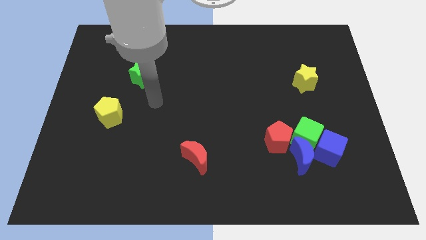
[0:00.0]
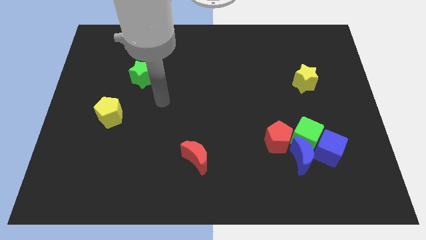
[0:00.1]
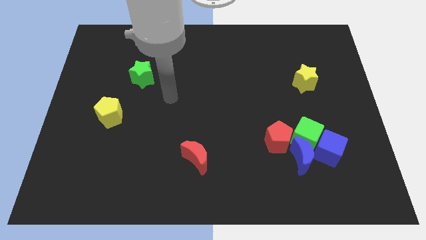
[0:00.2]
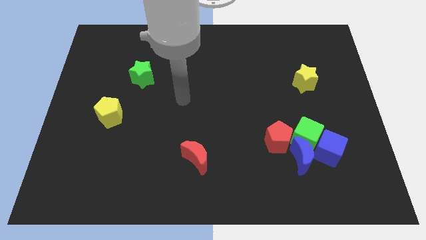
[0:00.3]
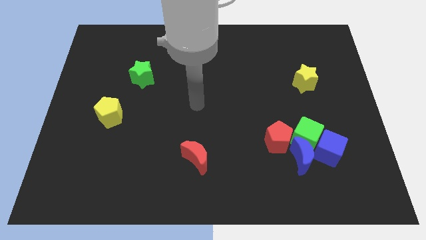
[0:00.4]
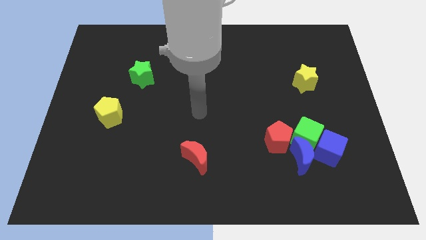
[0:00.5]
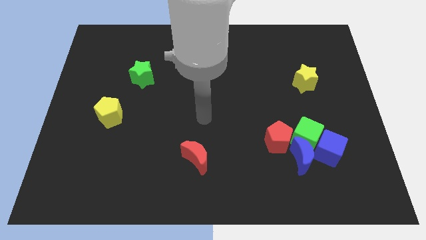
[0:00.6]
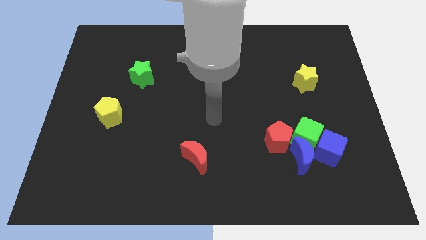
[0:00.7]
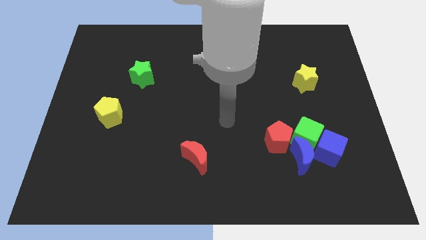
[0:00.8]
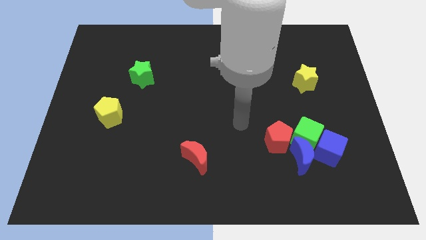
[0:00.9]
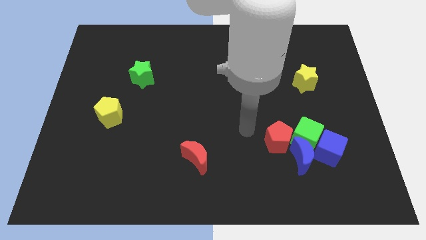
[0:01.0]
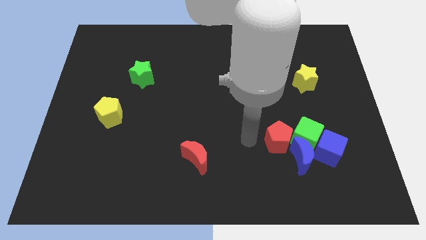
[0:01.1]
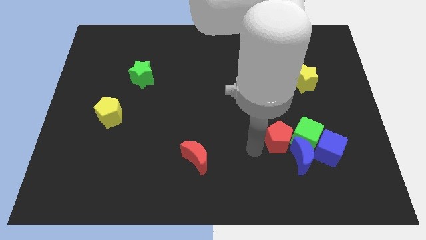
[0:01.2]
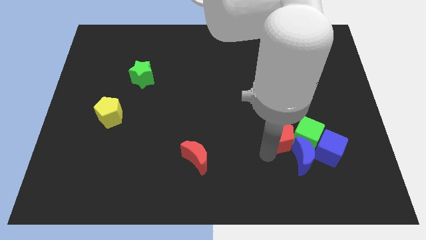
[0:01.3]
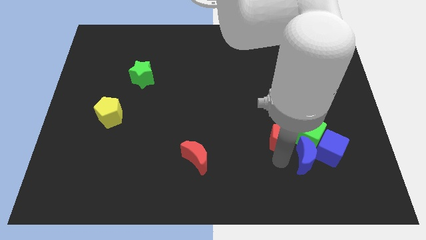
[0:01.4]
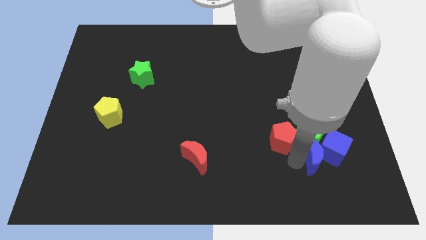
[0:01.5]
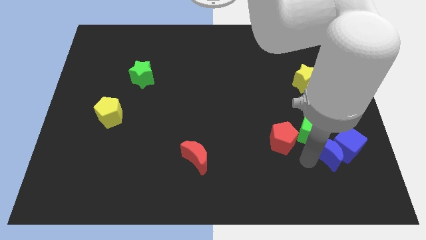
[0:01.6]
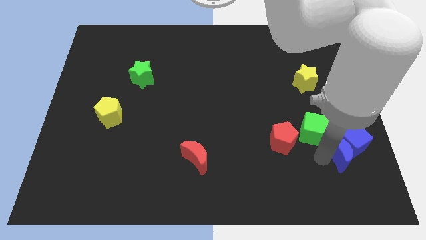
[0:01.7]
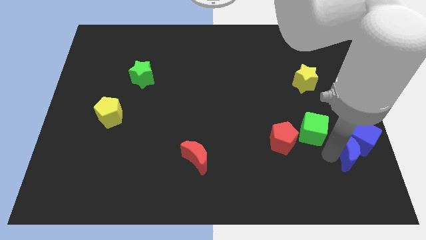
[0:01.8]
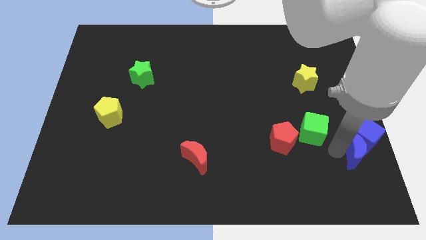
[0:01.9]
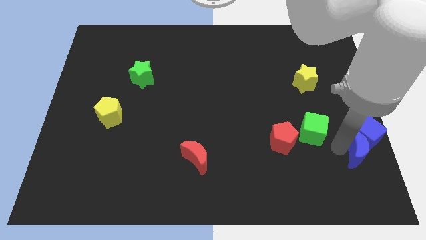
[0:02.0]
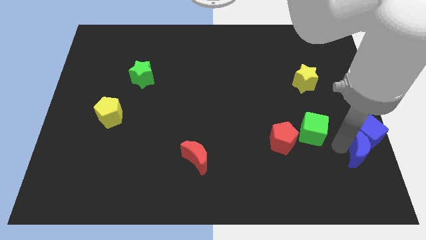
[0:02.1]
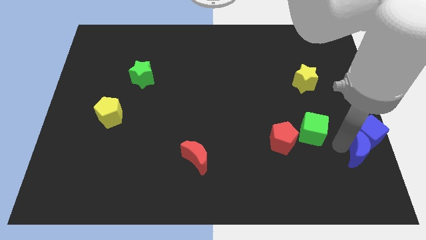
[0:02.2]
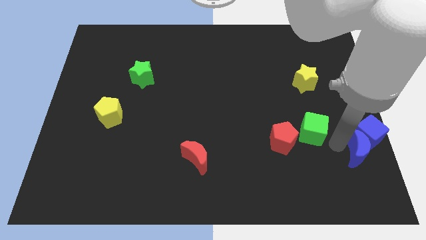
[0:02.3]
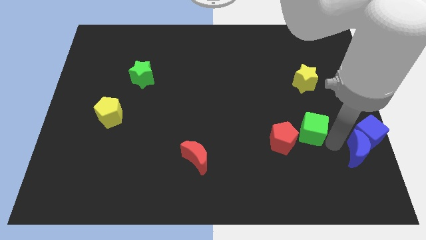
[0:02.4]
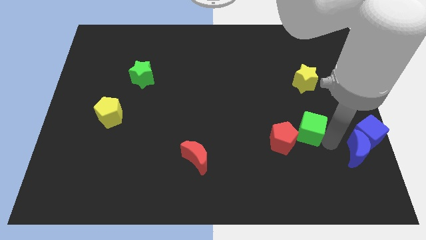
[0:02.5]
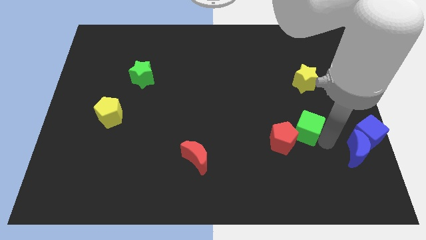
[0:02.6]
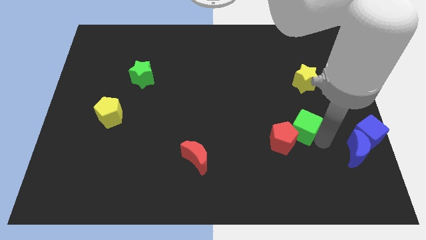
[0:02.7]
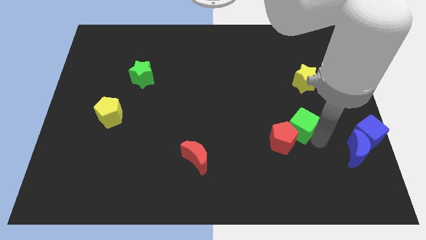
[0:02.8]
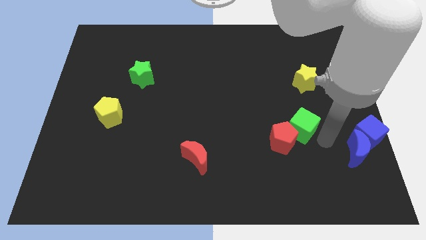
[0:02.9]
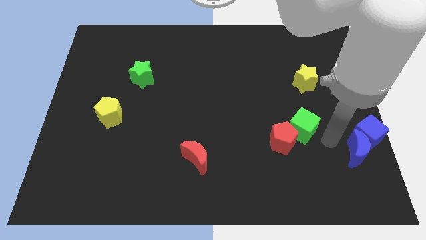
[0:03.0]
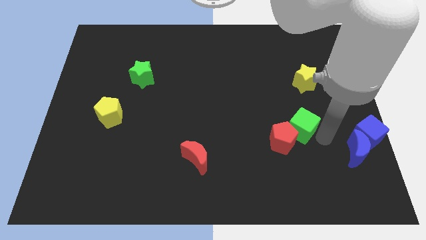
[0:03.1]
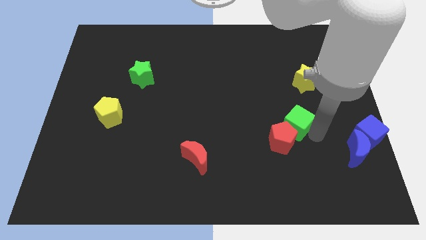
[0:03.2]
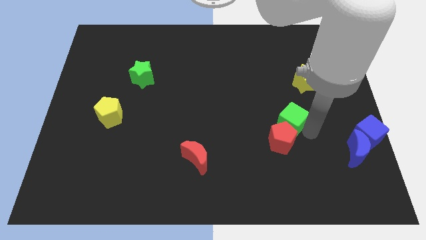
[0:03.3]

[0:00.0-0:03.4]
pull the green cube apart from the group of blocks

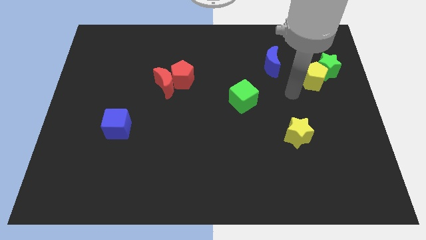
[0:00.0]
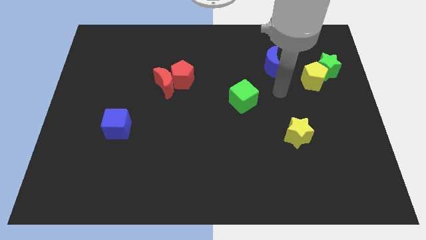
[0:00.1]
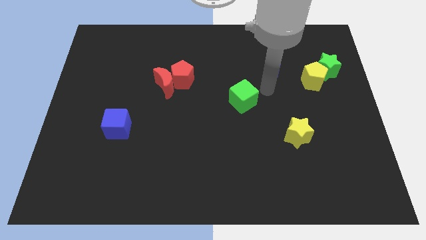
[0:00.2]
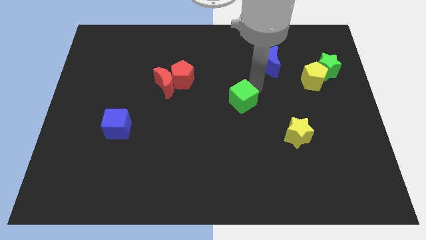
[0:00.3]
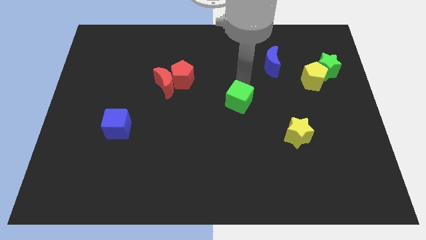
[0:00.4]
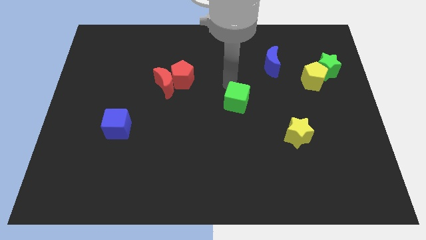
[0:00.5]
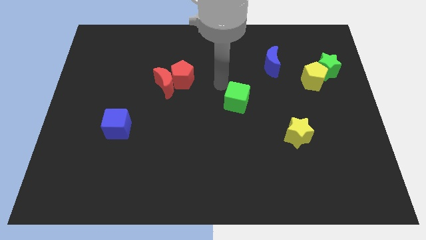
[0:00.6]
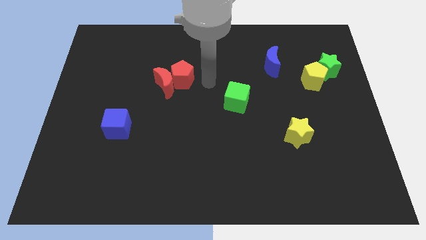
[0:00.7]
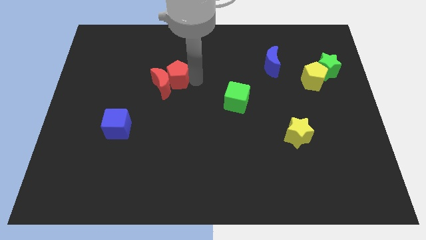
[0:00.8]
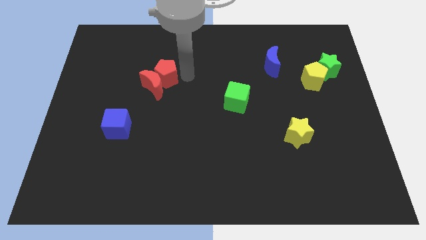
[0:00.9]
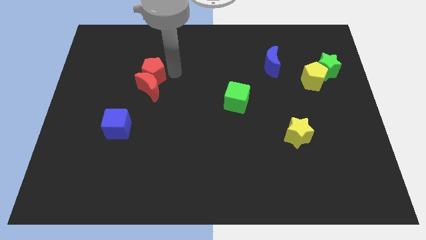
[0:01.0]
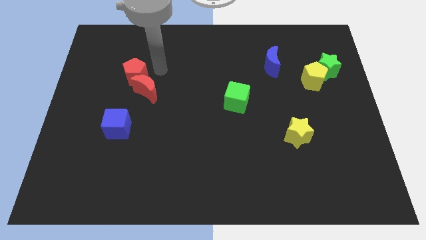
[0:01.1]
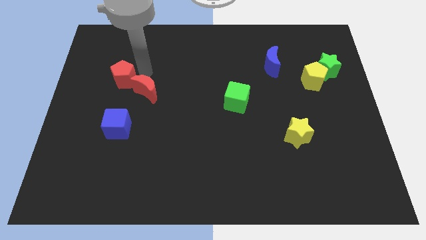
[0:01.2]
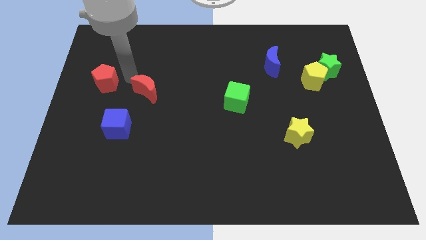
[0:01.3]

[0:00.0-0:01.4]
pull the red moon apart from the red pentagon

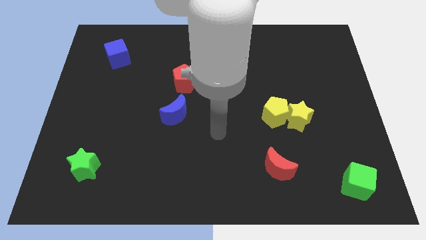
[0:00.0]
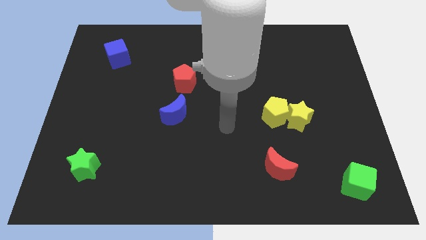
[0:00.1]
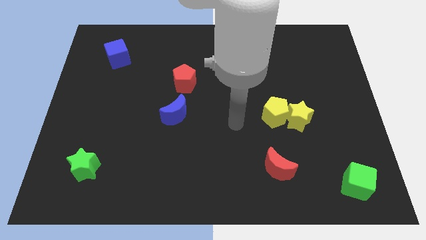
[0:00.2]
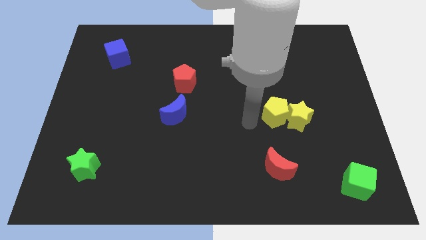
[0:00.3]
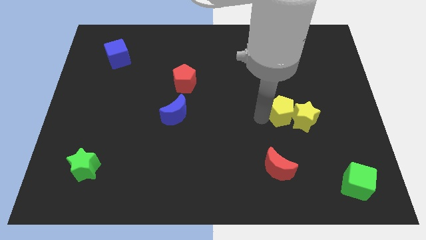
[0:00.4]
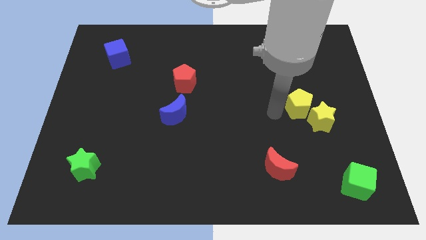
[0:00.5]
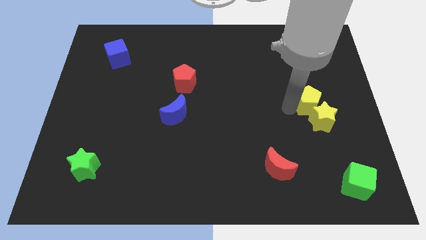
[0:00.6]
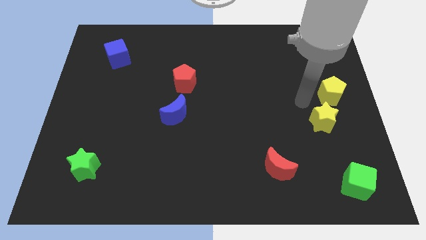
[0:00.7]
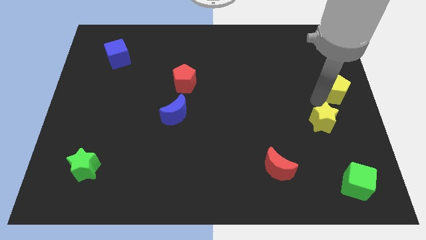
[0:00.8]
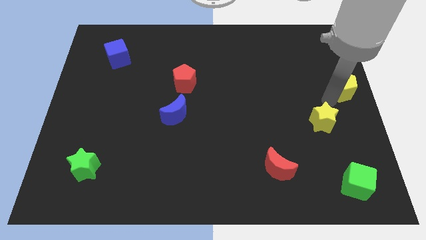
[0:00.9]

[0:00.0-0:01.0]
move the yellow star away from the yellow pentagon

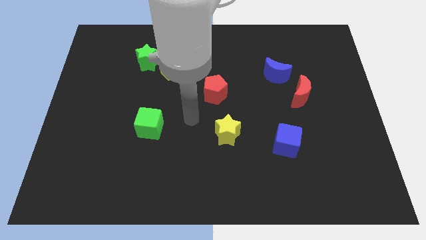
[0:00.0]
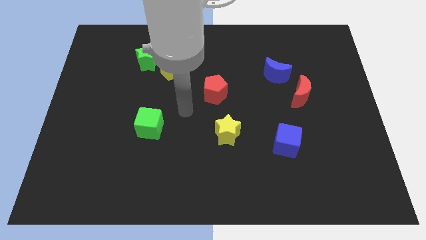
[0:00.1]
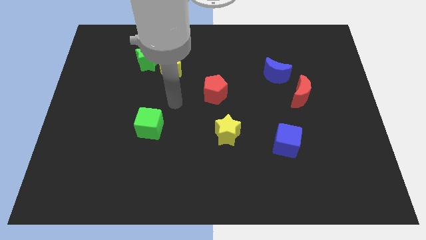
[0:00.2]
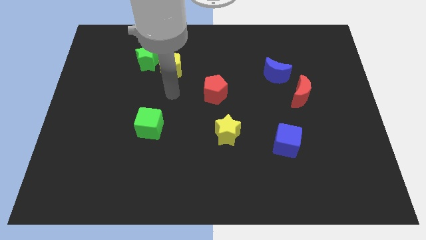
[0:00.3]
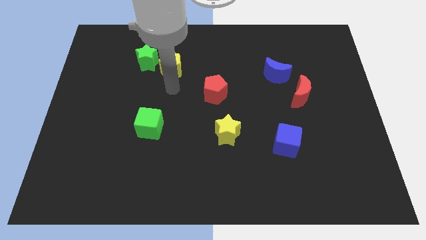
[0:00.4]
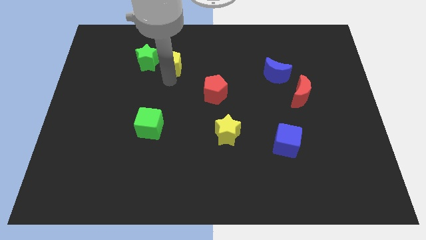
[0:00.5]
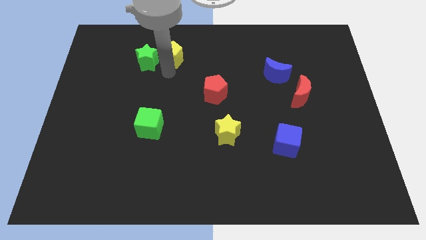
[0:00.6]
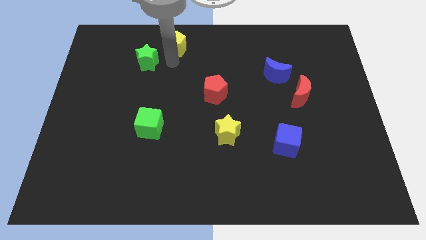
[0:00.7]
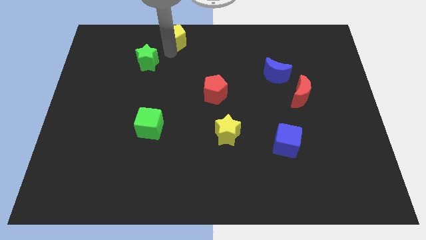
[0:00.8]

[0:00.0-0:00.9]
move the green star away from the yellow pentagon

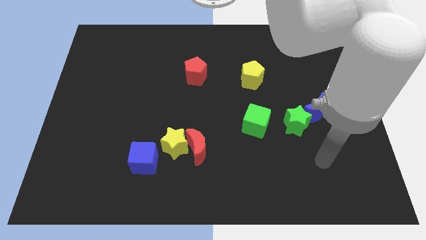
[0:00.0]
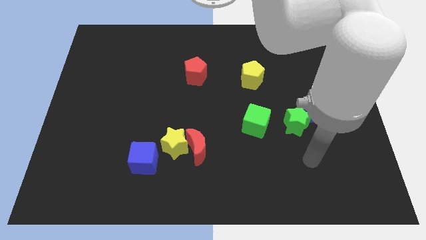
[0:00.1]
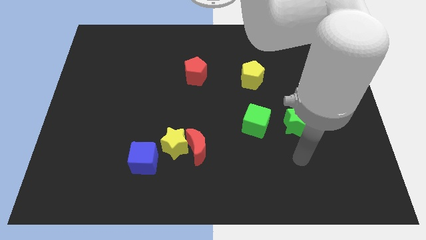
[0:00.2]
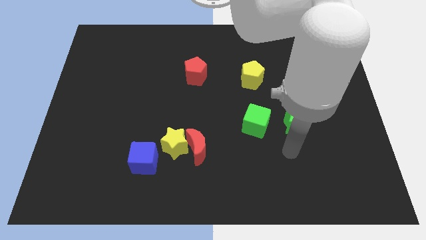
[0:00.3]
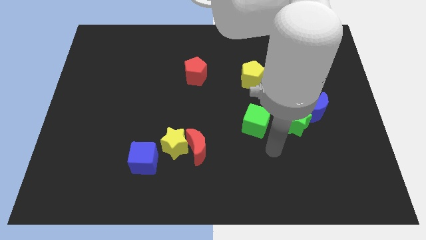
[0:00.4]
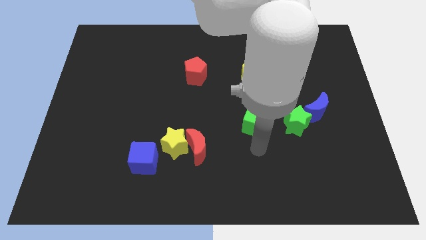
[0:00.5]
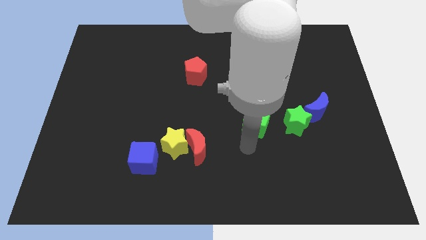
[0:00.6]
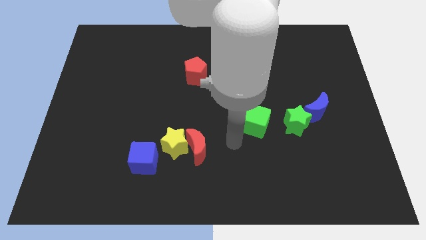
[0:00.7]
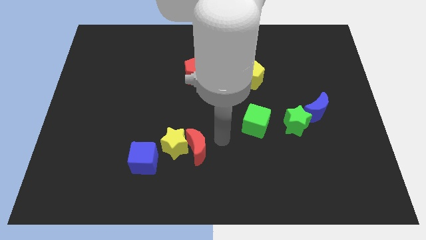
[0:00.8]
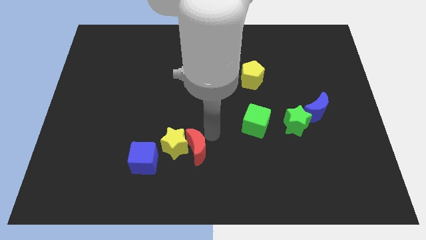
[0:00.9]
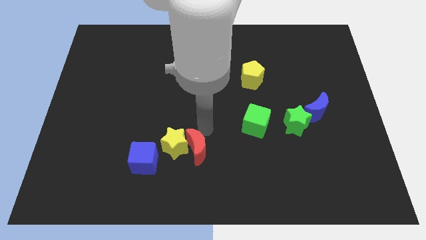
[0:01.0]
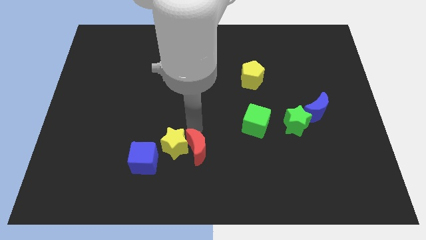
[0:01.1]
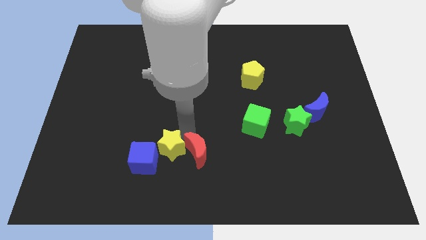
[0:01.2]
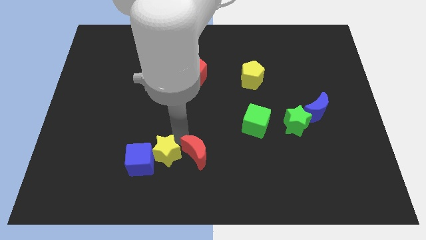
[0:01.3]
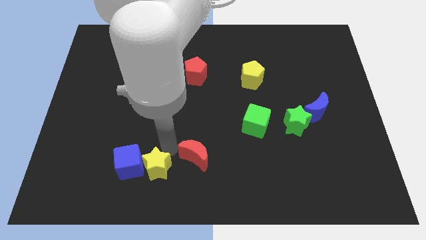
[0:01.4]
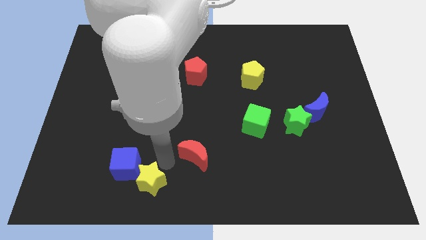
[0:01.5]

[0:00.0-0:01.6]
pull the red moon apart from the yellow star

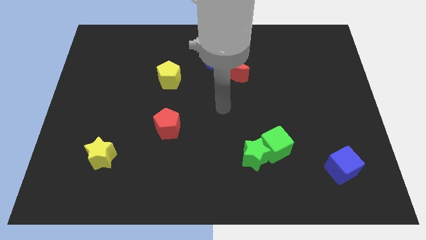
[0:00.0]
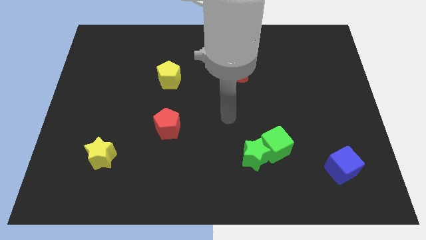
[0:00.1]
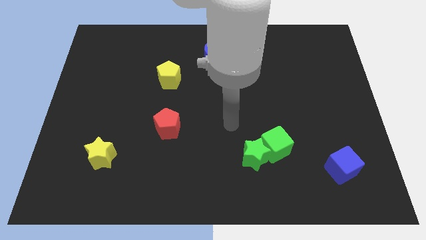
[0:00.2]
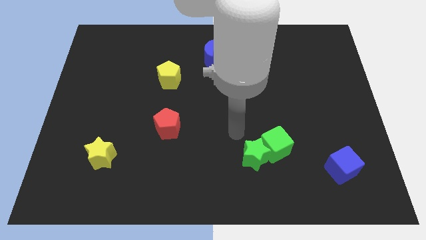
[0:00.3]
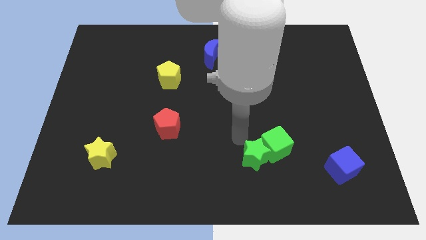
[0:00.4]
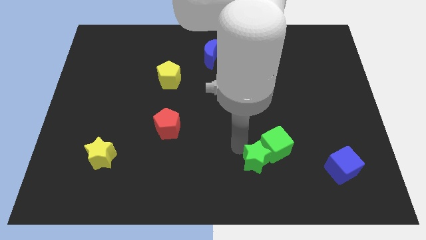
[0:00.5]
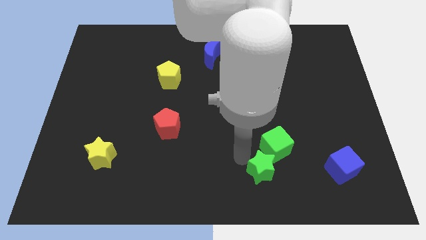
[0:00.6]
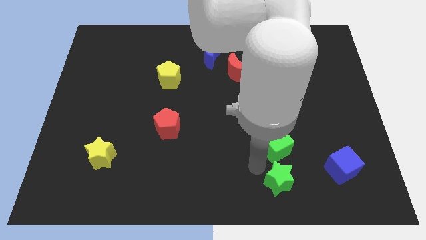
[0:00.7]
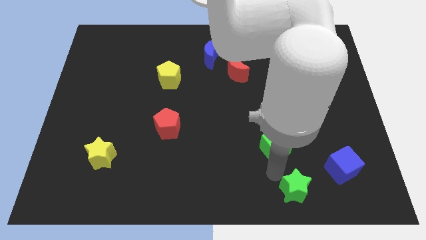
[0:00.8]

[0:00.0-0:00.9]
move the green cube away from the green star
